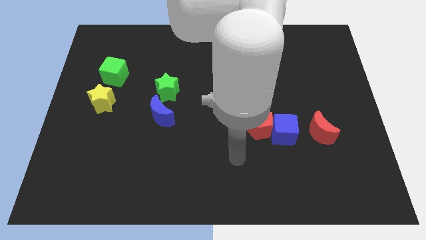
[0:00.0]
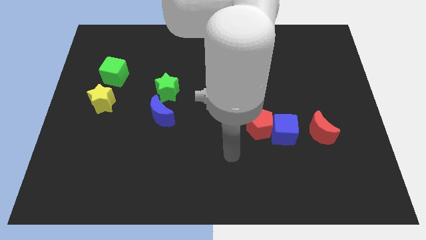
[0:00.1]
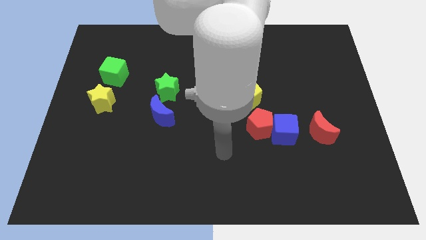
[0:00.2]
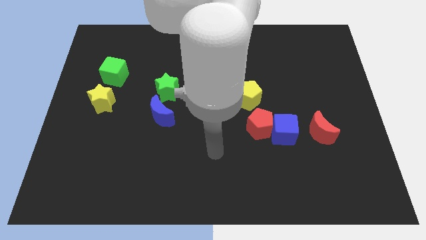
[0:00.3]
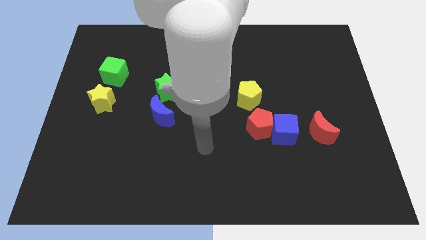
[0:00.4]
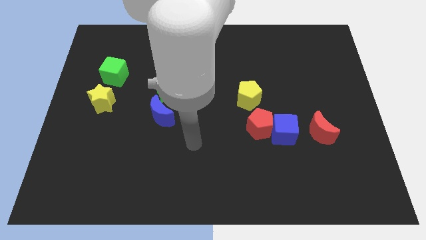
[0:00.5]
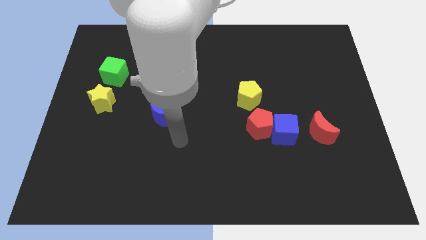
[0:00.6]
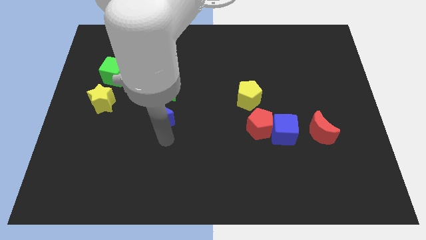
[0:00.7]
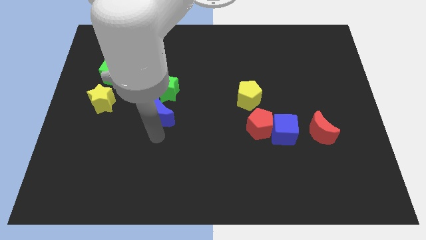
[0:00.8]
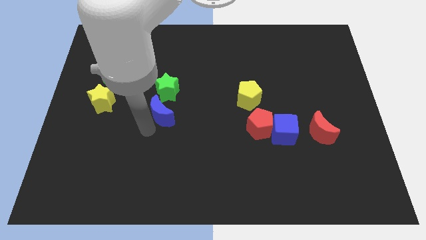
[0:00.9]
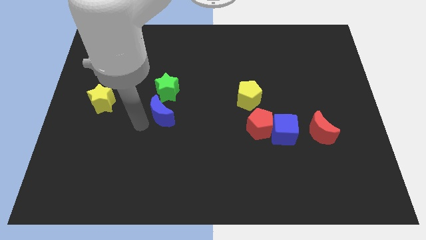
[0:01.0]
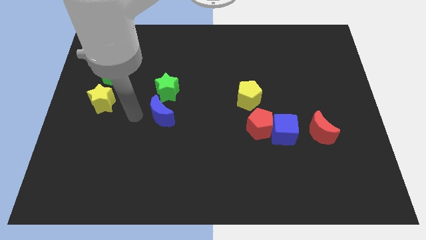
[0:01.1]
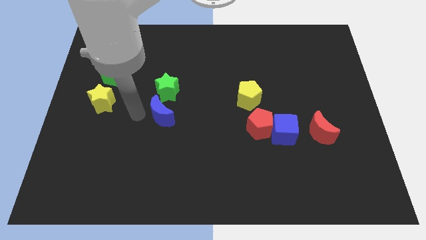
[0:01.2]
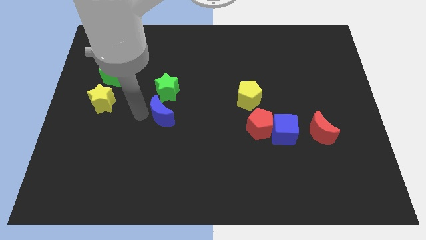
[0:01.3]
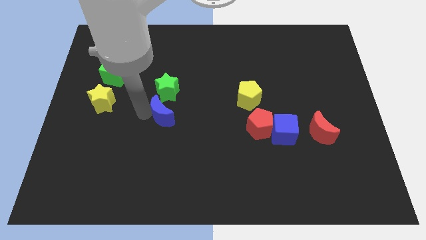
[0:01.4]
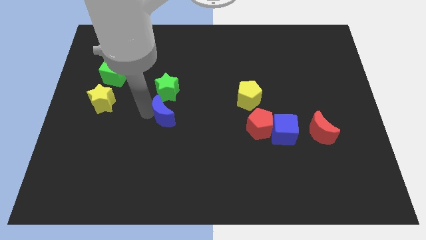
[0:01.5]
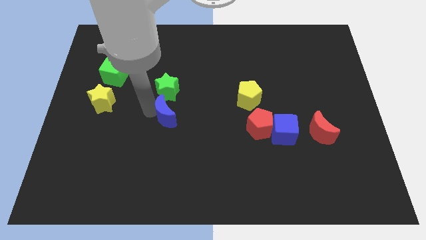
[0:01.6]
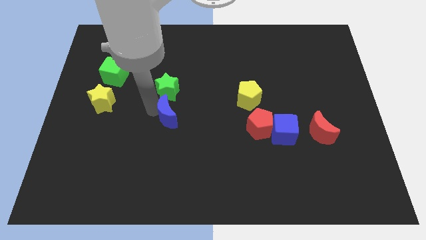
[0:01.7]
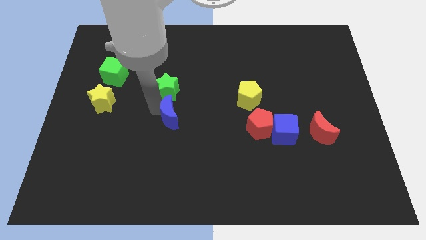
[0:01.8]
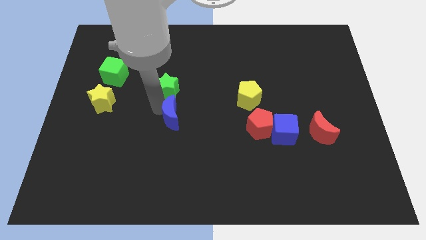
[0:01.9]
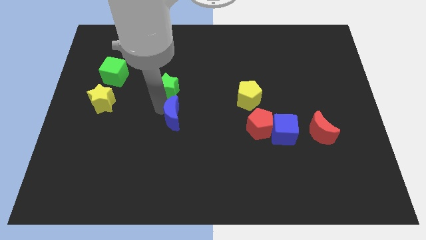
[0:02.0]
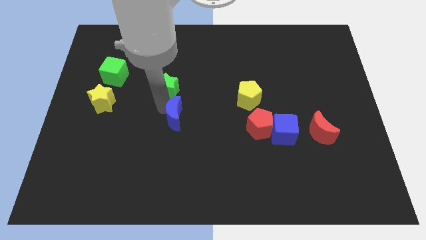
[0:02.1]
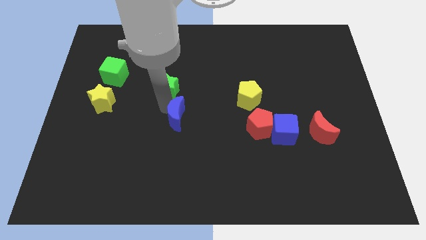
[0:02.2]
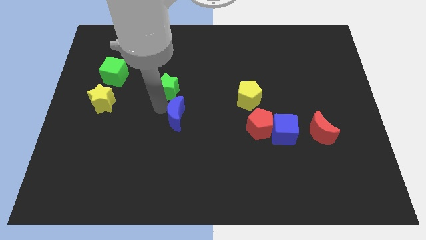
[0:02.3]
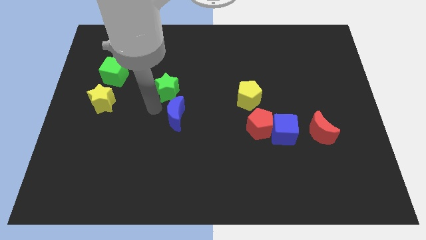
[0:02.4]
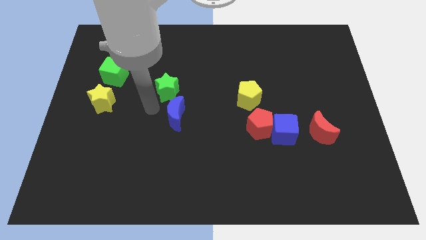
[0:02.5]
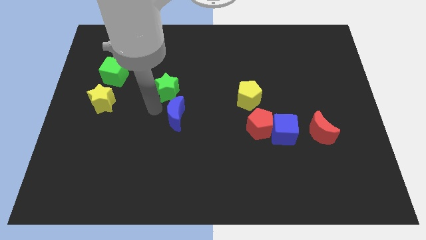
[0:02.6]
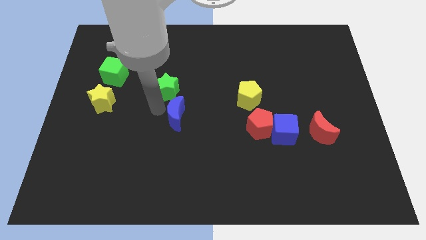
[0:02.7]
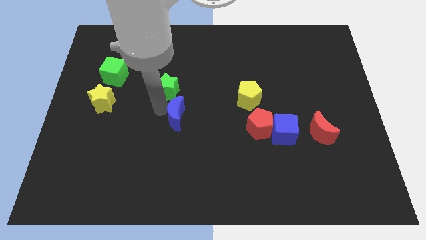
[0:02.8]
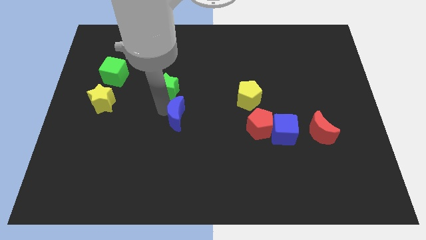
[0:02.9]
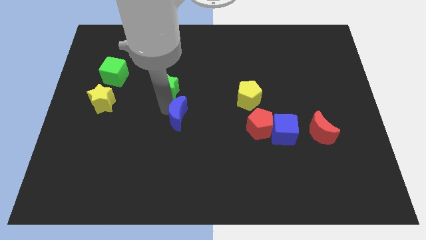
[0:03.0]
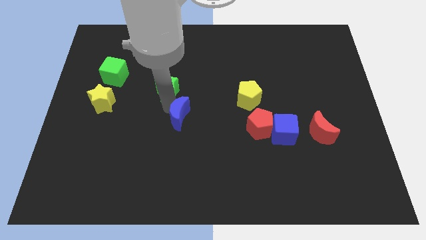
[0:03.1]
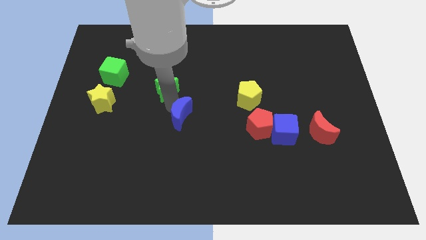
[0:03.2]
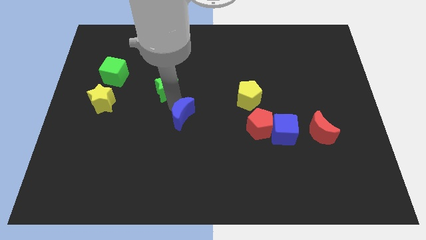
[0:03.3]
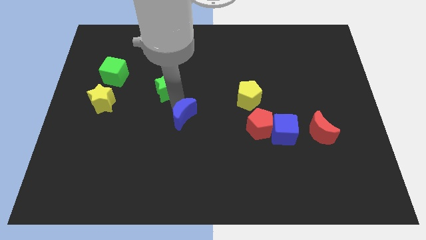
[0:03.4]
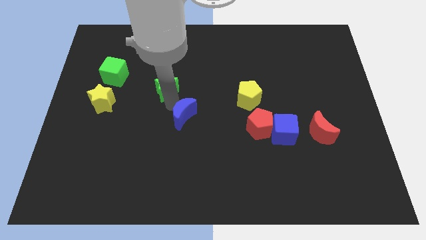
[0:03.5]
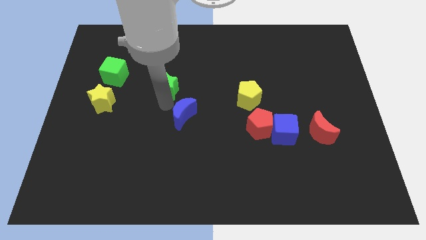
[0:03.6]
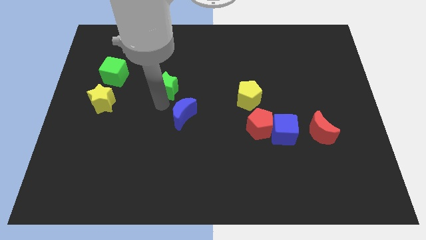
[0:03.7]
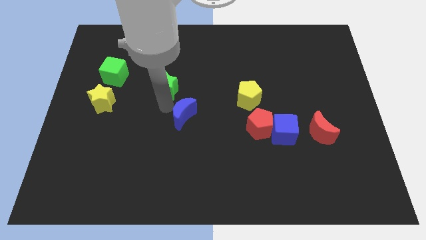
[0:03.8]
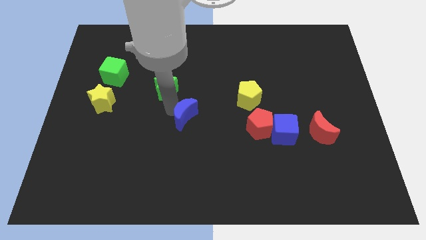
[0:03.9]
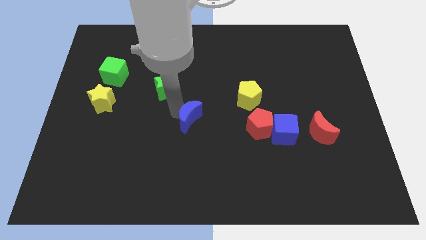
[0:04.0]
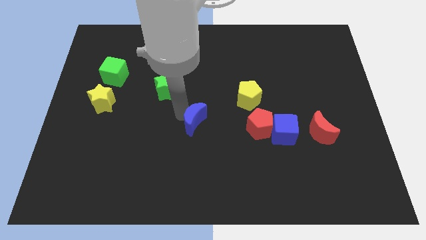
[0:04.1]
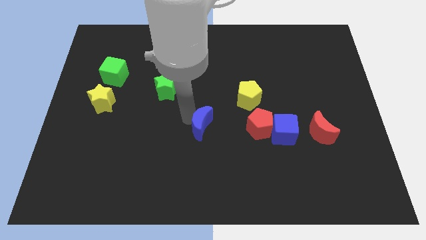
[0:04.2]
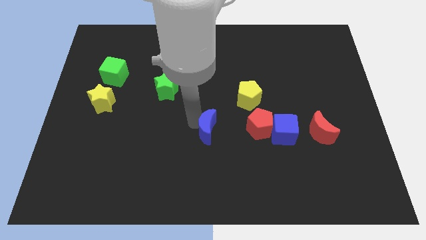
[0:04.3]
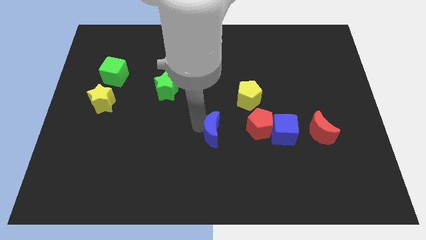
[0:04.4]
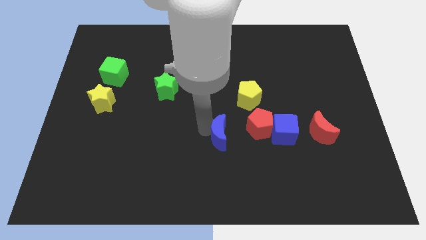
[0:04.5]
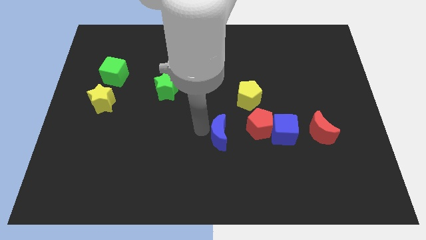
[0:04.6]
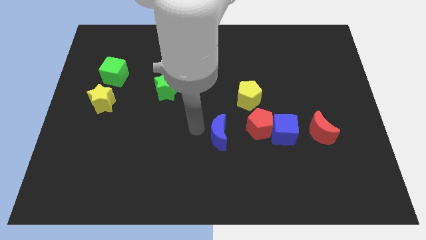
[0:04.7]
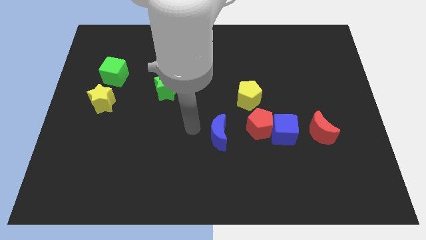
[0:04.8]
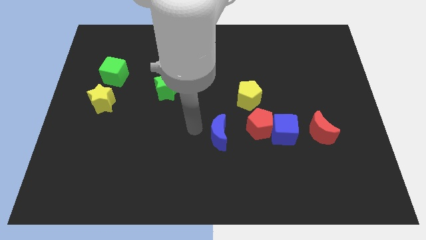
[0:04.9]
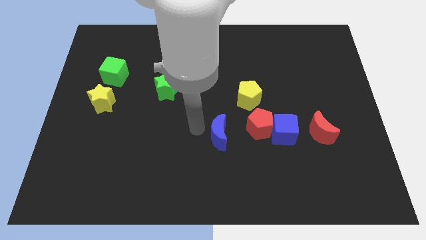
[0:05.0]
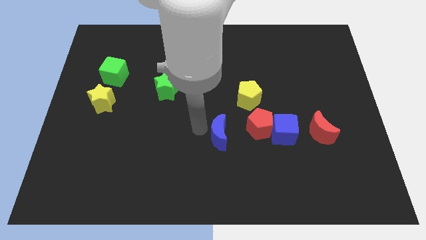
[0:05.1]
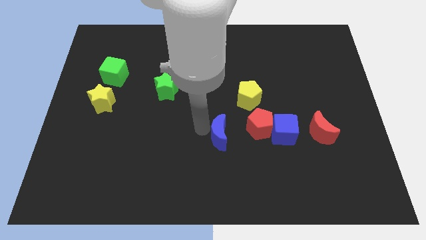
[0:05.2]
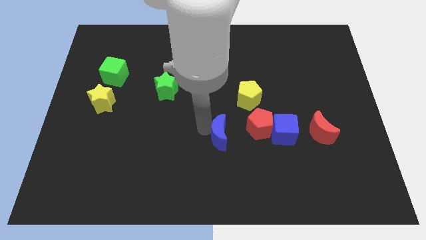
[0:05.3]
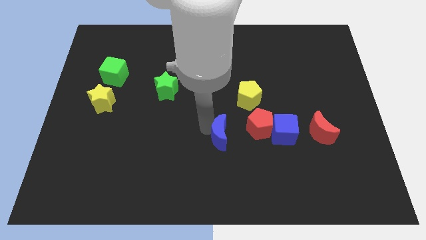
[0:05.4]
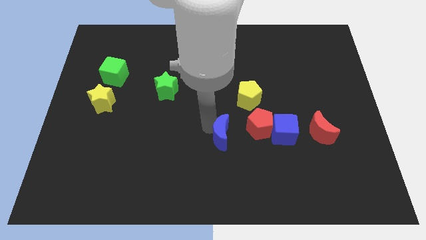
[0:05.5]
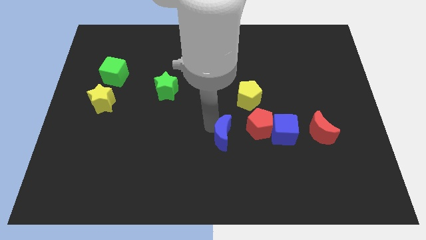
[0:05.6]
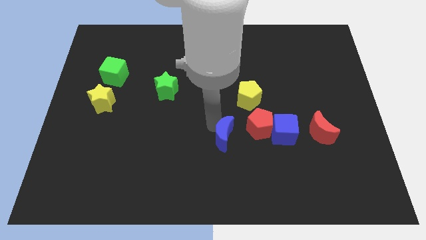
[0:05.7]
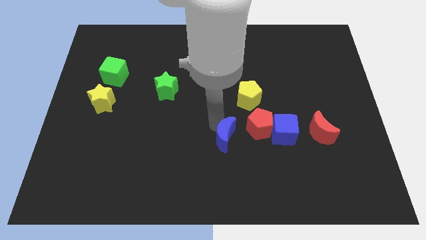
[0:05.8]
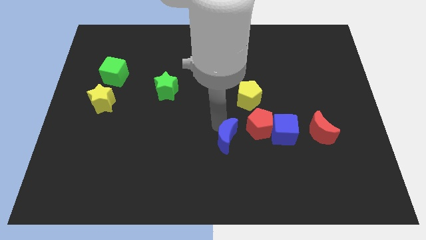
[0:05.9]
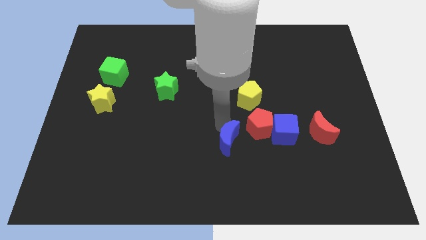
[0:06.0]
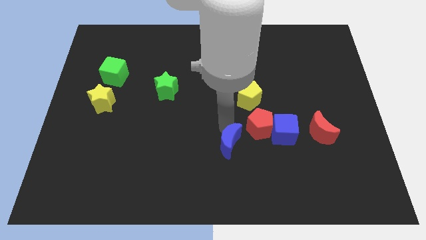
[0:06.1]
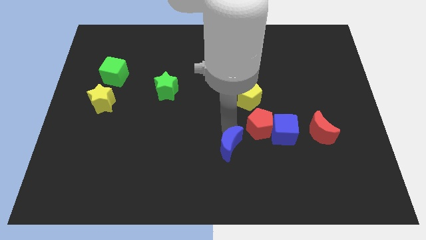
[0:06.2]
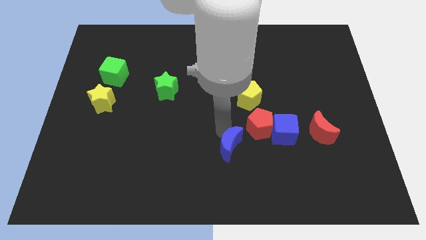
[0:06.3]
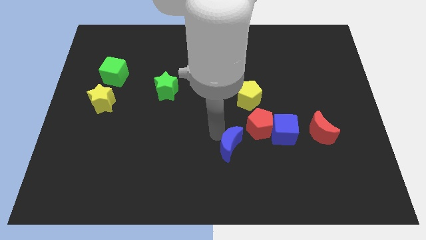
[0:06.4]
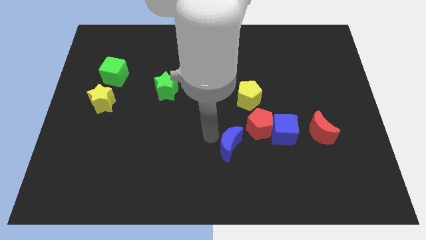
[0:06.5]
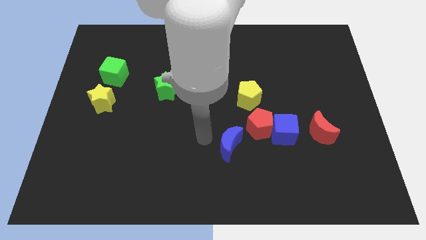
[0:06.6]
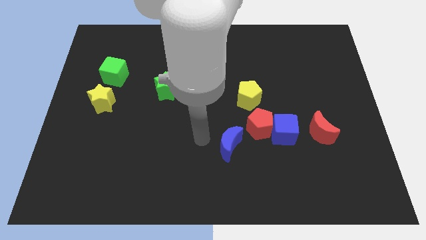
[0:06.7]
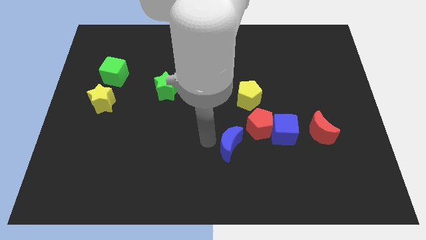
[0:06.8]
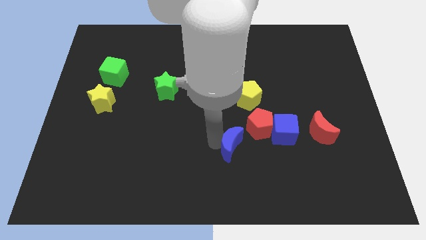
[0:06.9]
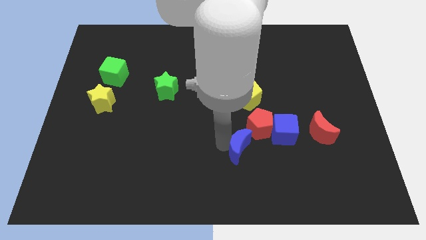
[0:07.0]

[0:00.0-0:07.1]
push the blue moon to the bottom left side of the blue cube
